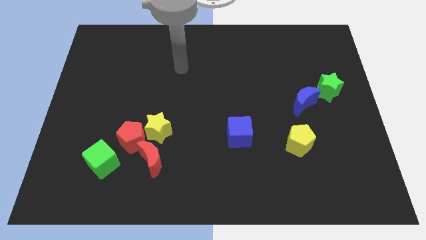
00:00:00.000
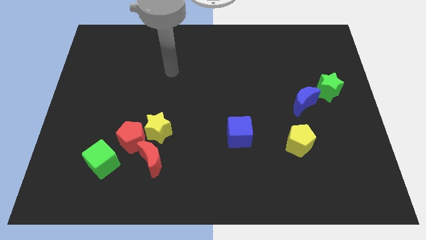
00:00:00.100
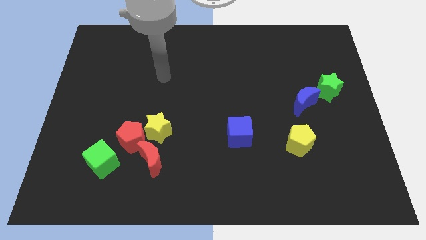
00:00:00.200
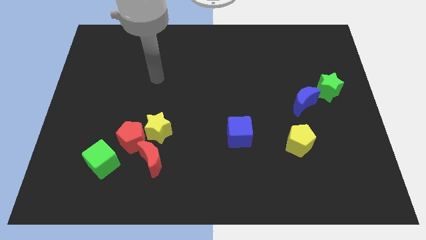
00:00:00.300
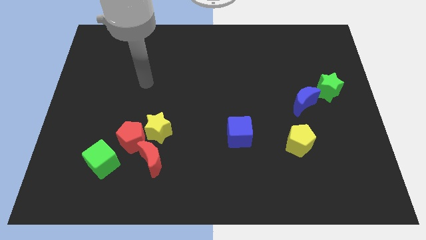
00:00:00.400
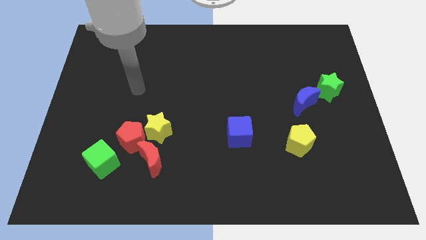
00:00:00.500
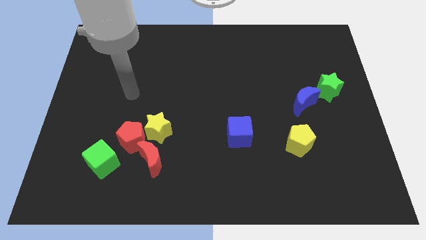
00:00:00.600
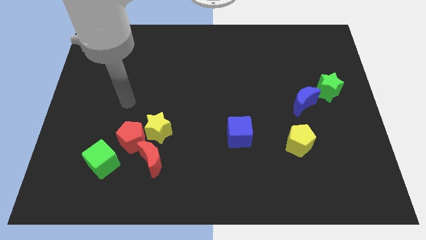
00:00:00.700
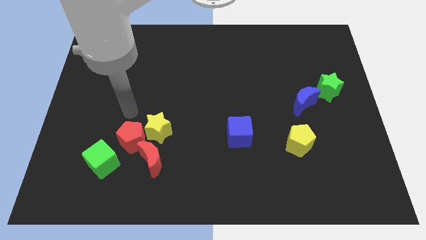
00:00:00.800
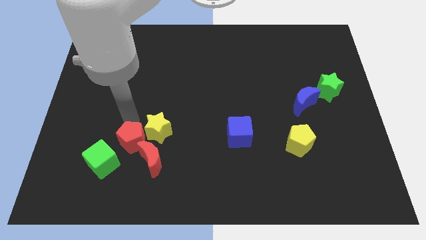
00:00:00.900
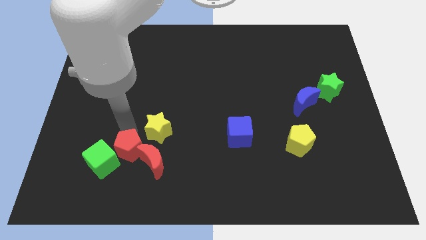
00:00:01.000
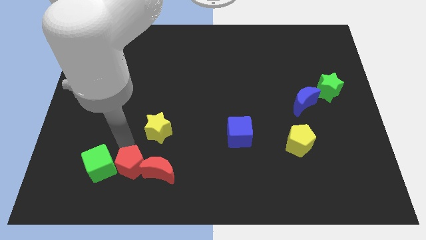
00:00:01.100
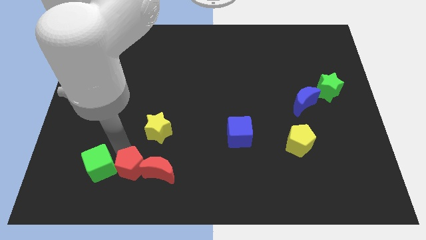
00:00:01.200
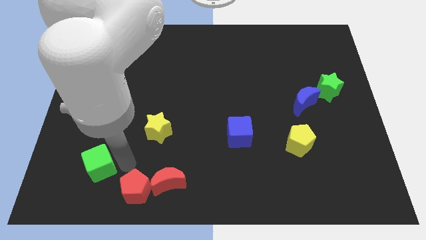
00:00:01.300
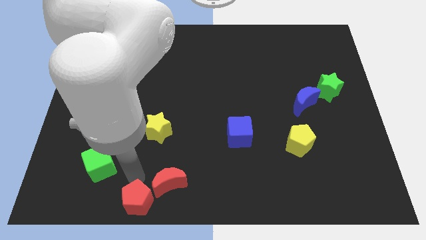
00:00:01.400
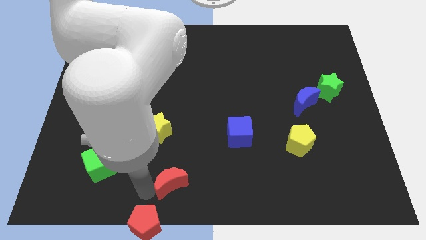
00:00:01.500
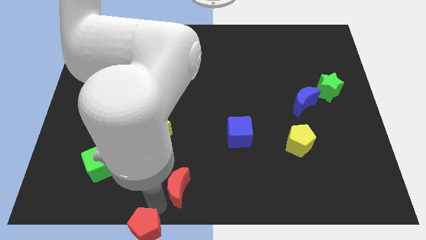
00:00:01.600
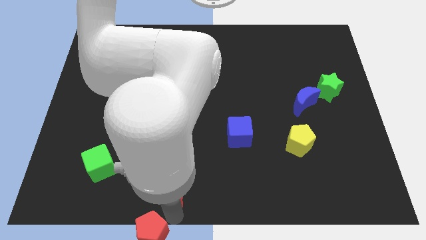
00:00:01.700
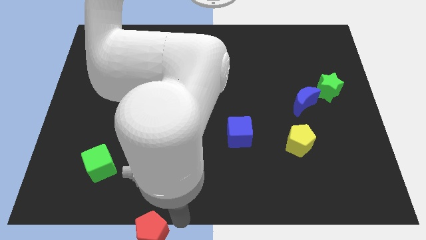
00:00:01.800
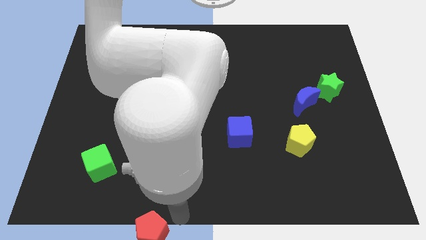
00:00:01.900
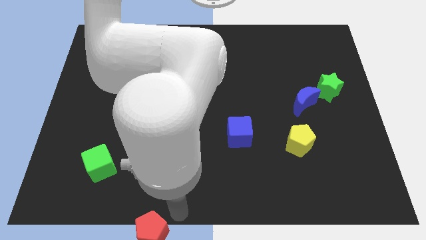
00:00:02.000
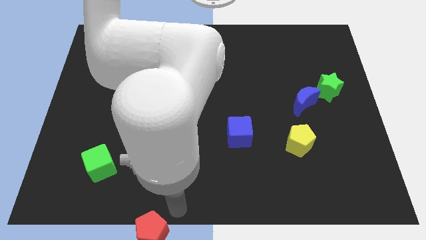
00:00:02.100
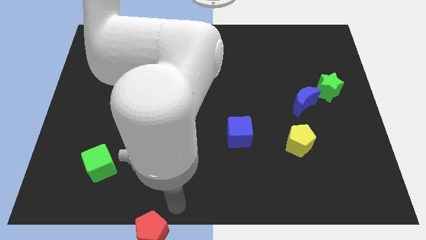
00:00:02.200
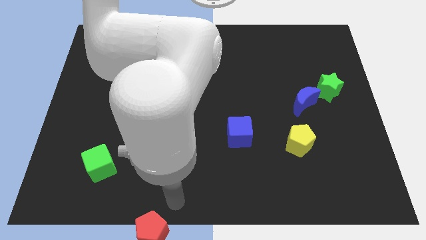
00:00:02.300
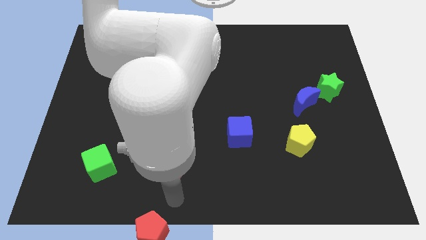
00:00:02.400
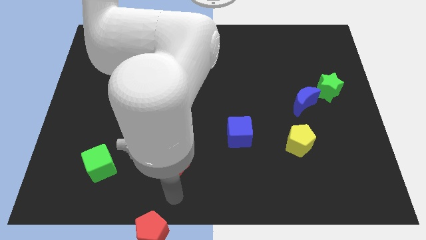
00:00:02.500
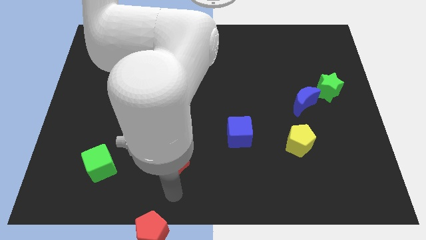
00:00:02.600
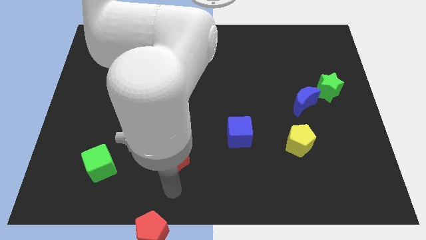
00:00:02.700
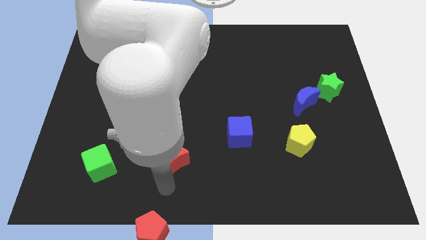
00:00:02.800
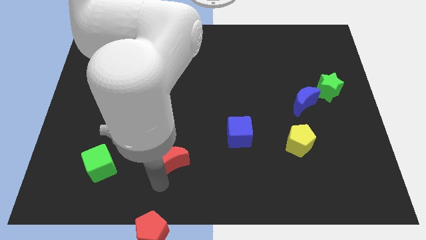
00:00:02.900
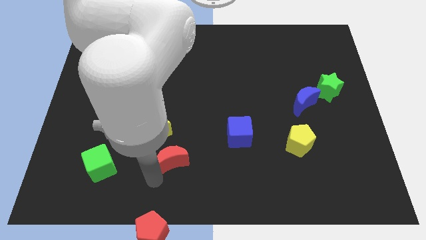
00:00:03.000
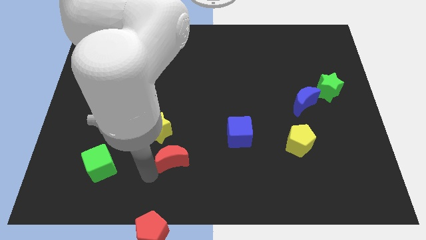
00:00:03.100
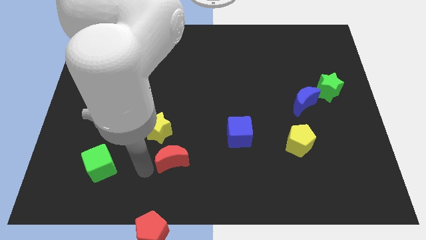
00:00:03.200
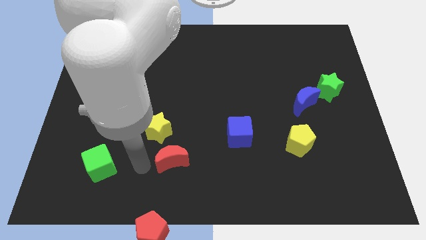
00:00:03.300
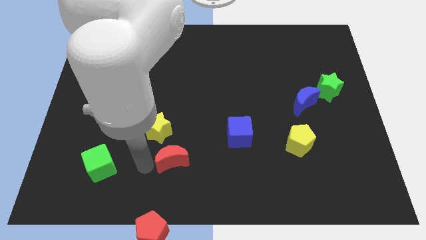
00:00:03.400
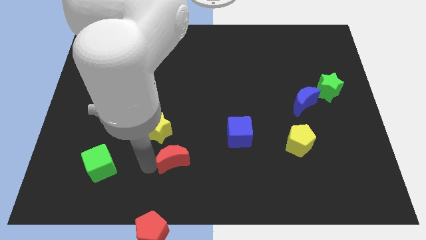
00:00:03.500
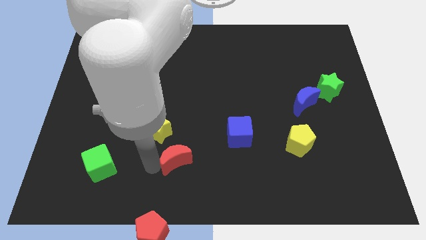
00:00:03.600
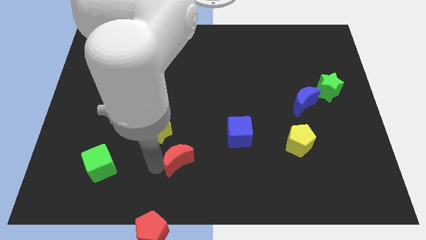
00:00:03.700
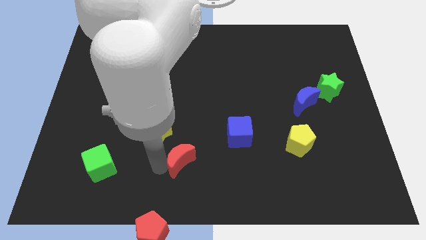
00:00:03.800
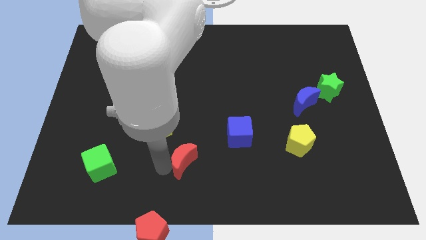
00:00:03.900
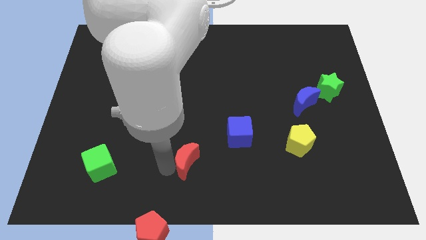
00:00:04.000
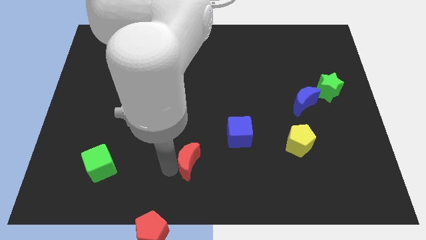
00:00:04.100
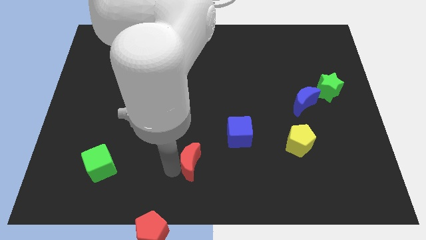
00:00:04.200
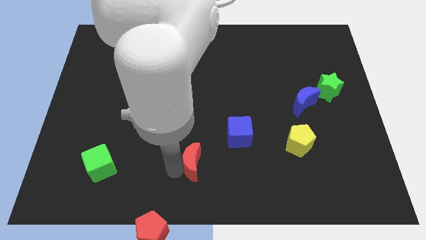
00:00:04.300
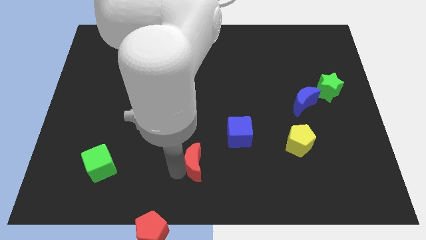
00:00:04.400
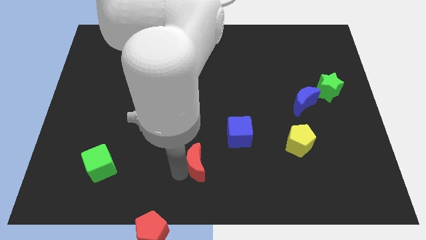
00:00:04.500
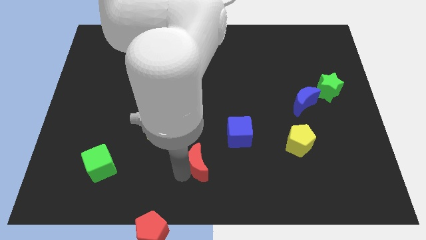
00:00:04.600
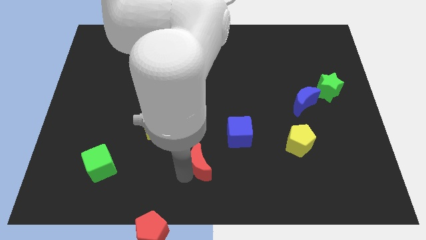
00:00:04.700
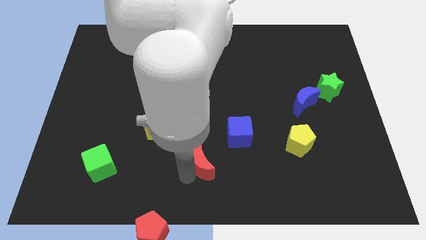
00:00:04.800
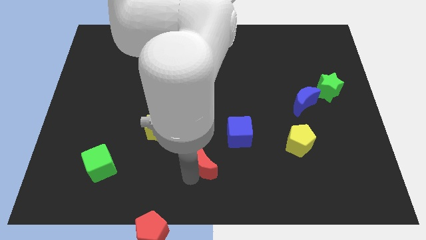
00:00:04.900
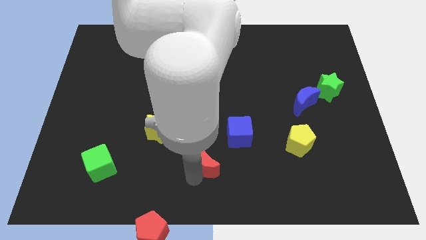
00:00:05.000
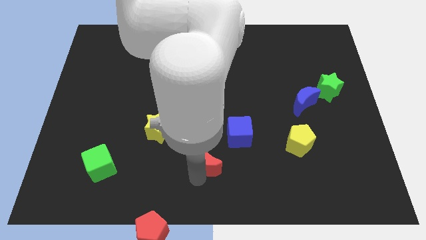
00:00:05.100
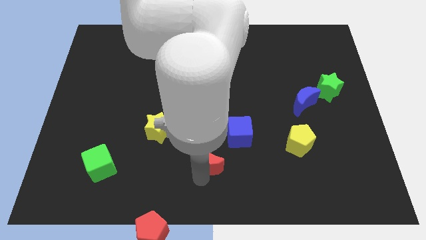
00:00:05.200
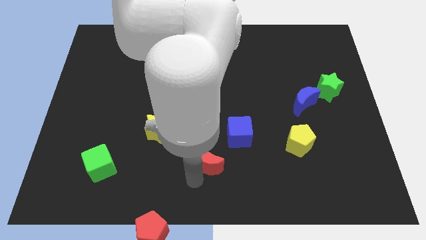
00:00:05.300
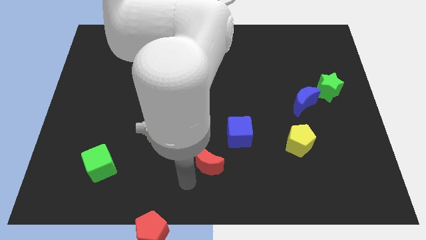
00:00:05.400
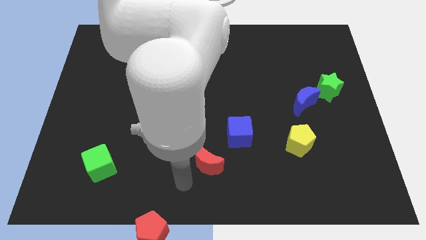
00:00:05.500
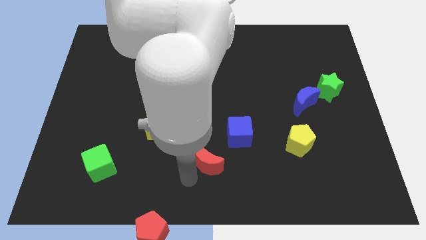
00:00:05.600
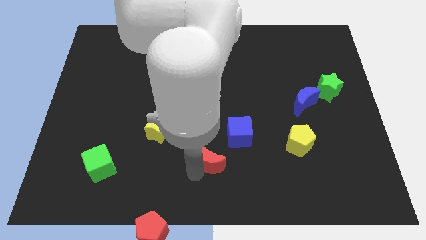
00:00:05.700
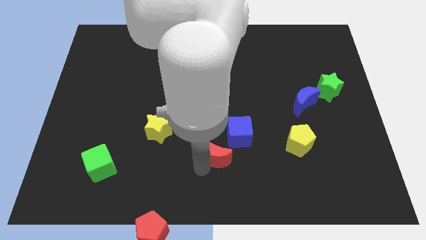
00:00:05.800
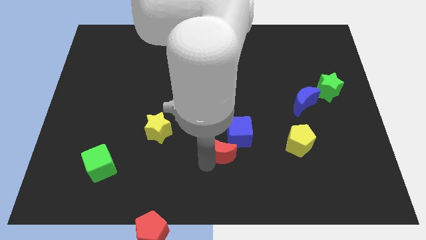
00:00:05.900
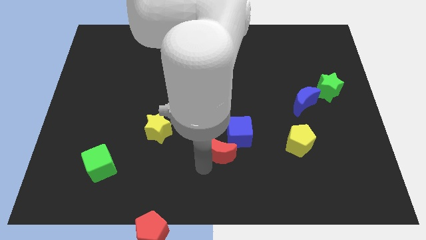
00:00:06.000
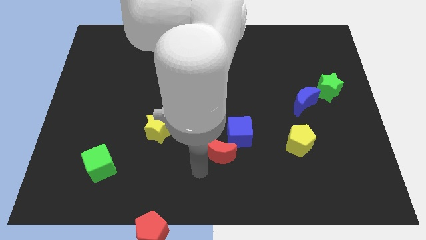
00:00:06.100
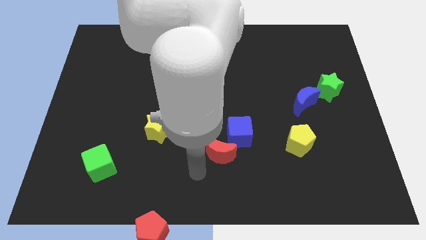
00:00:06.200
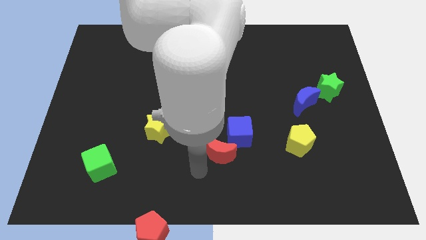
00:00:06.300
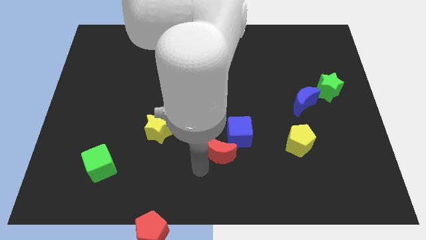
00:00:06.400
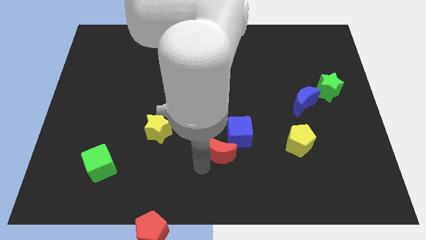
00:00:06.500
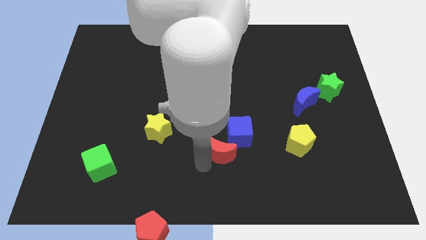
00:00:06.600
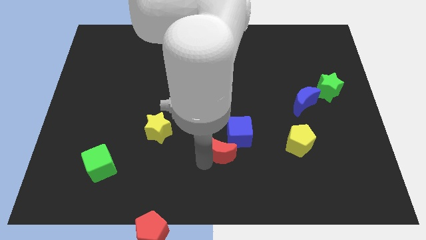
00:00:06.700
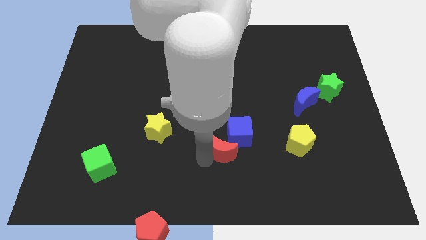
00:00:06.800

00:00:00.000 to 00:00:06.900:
move the red moon towards the blue cube

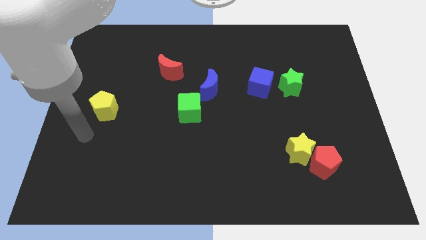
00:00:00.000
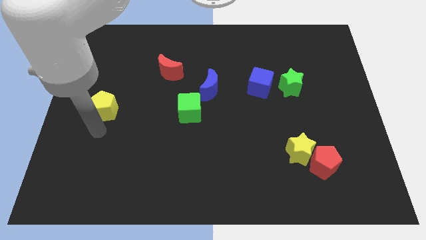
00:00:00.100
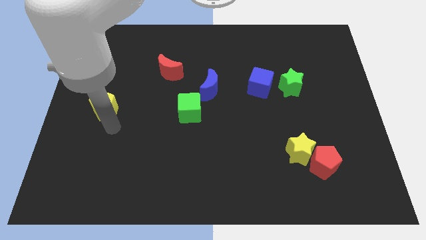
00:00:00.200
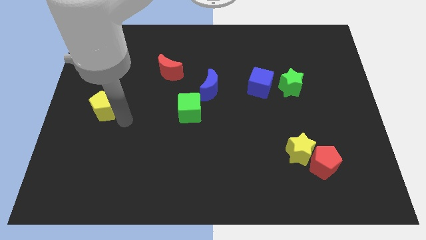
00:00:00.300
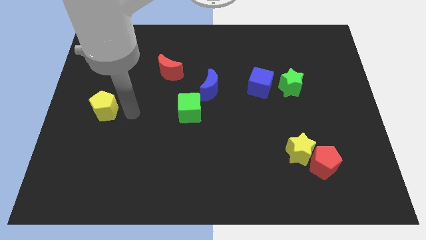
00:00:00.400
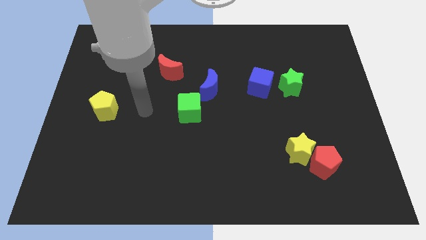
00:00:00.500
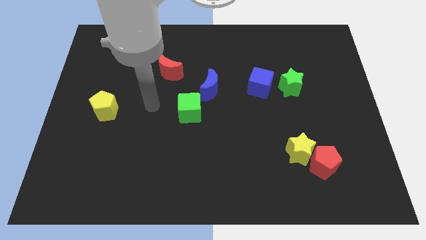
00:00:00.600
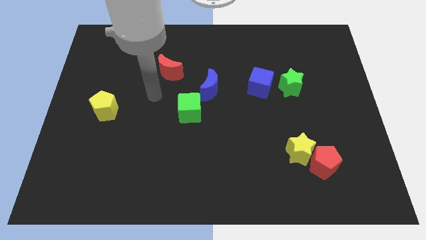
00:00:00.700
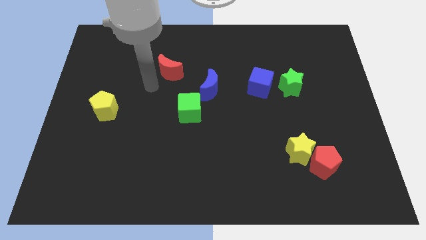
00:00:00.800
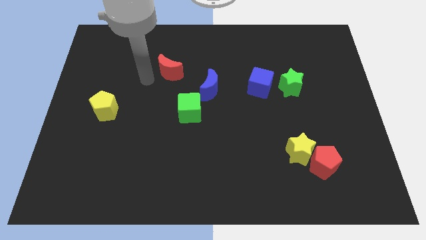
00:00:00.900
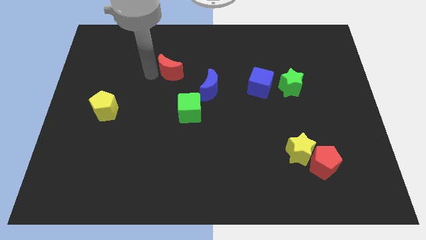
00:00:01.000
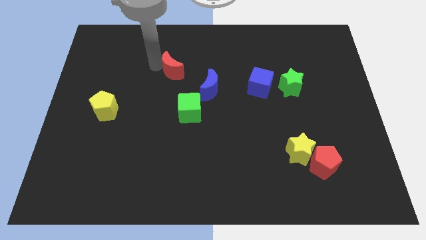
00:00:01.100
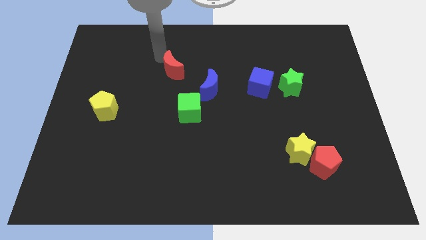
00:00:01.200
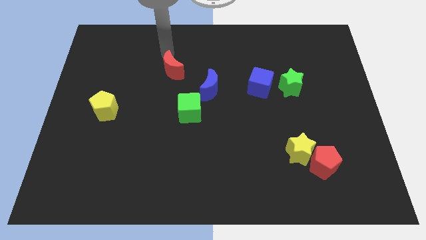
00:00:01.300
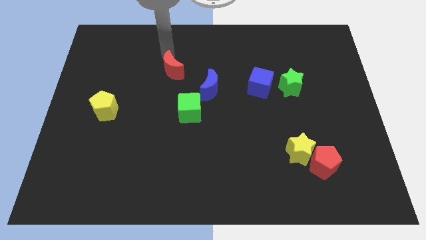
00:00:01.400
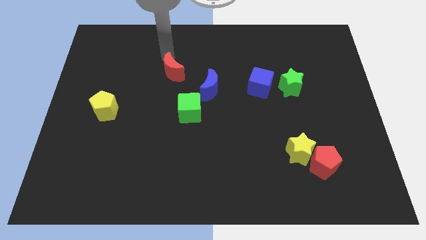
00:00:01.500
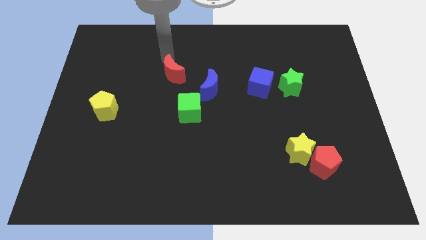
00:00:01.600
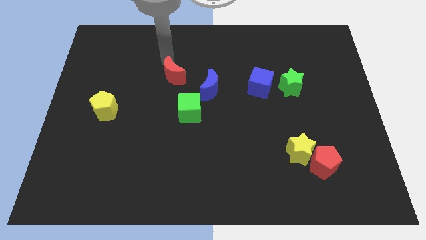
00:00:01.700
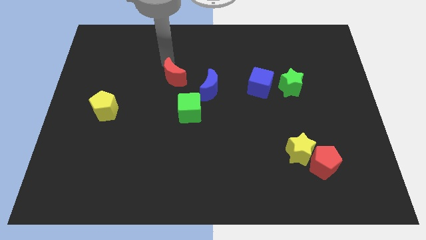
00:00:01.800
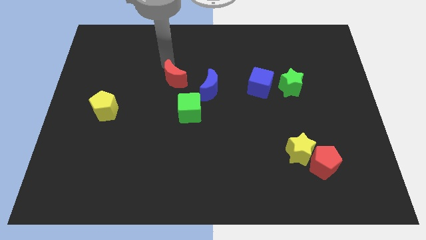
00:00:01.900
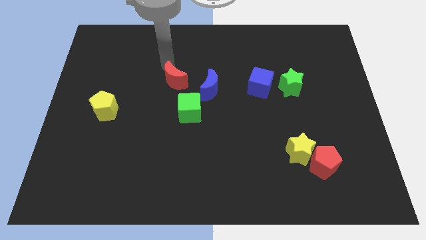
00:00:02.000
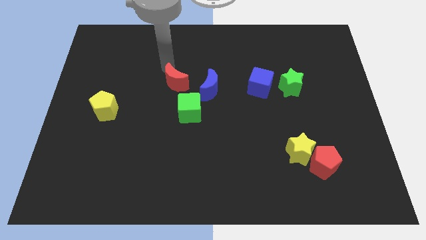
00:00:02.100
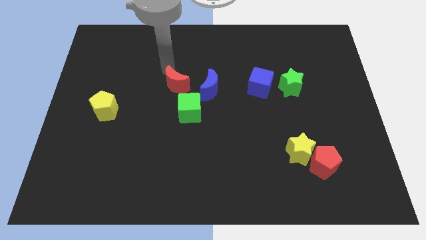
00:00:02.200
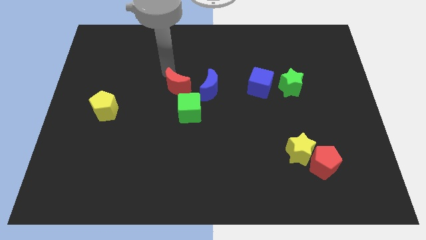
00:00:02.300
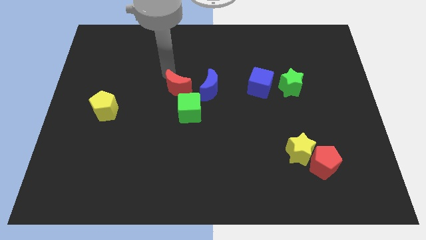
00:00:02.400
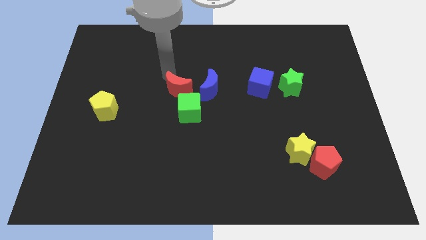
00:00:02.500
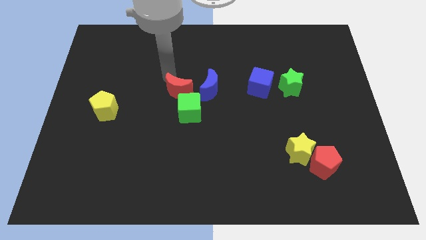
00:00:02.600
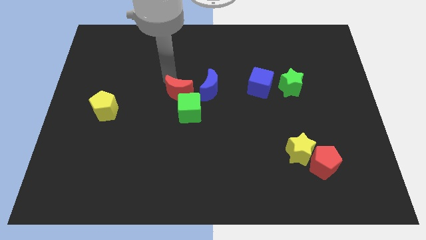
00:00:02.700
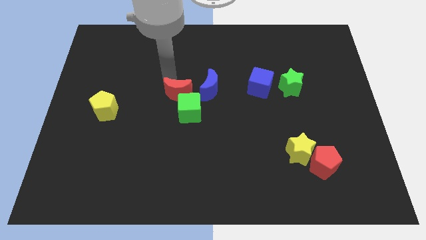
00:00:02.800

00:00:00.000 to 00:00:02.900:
move the red moon towards the green cube
